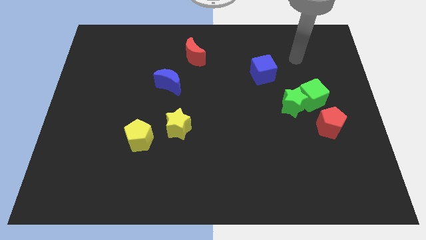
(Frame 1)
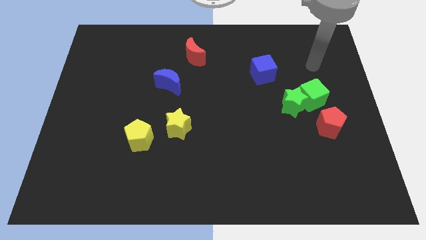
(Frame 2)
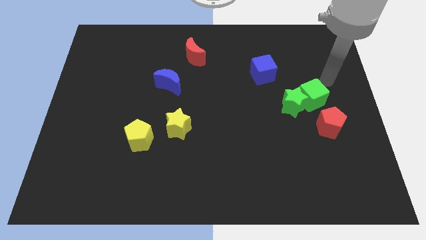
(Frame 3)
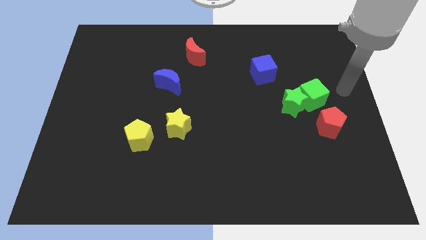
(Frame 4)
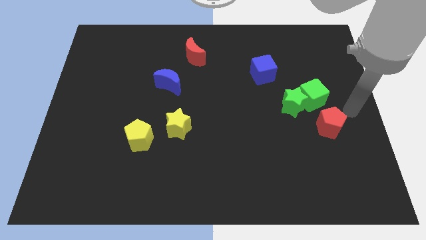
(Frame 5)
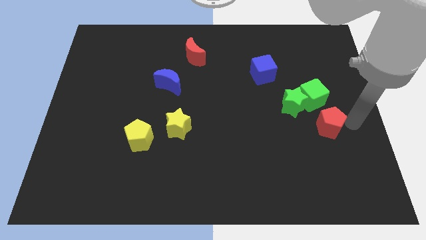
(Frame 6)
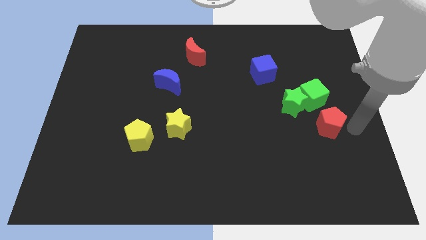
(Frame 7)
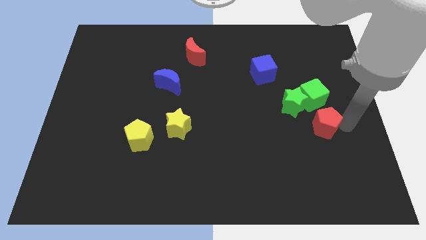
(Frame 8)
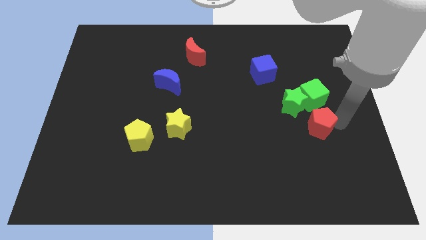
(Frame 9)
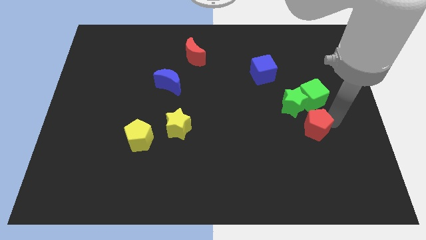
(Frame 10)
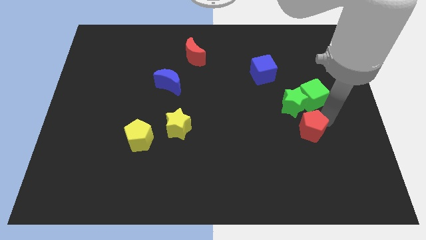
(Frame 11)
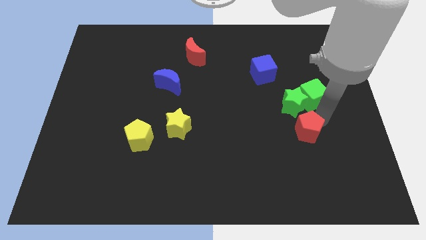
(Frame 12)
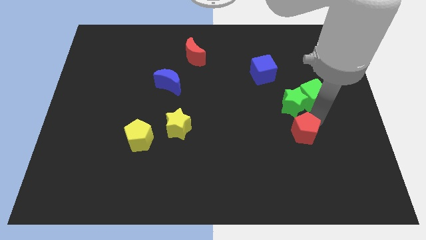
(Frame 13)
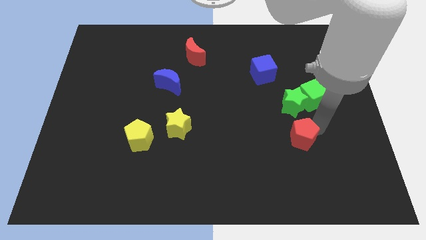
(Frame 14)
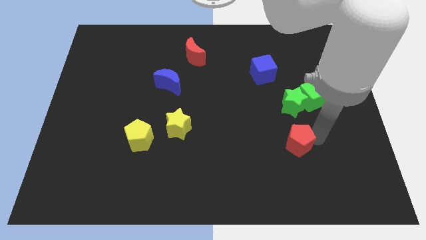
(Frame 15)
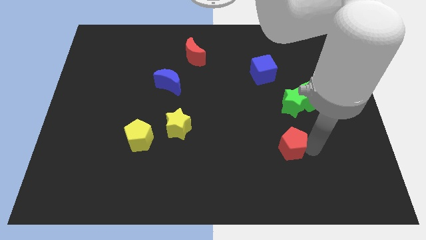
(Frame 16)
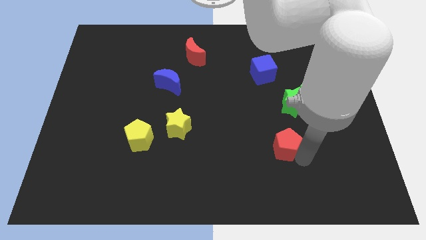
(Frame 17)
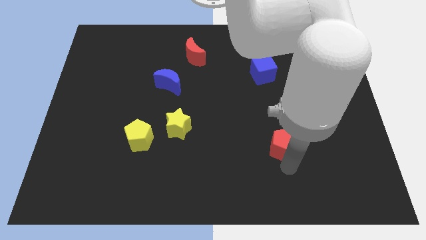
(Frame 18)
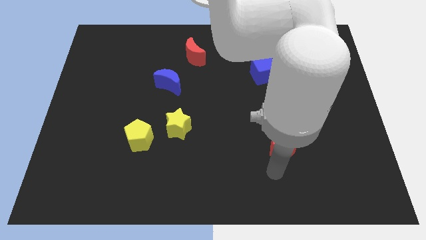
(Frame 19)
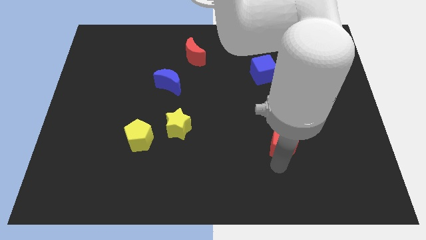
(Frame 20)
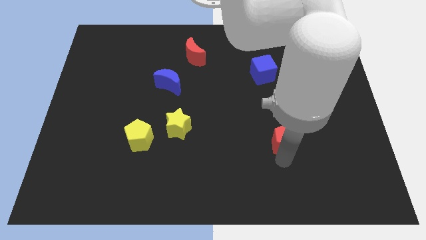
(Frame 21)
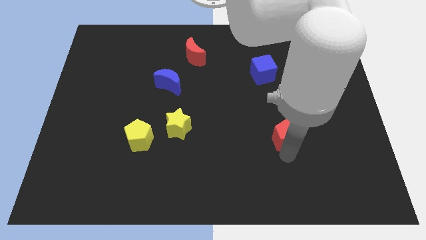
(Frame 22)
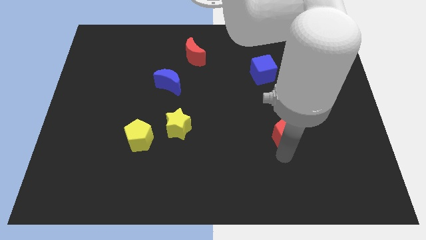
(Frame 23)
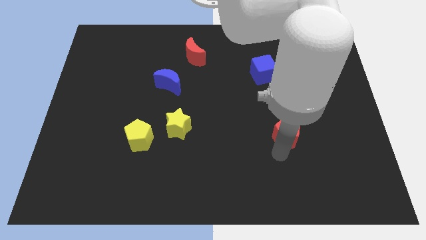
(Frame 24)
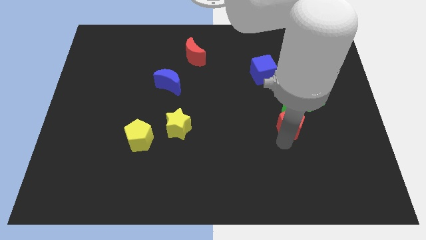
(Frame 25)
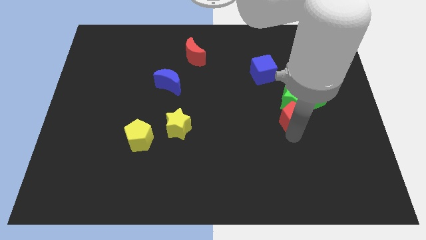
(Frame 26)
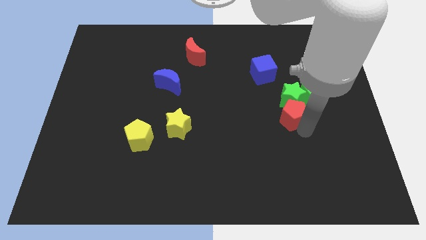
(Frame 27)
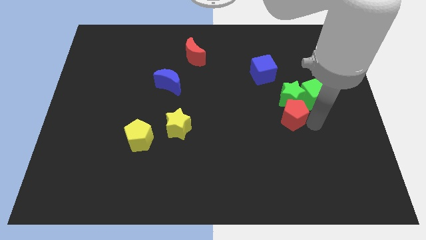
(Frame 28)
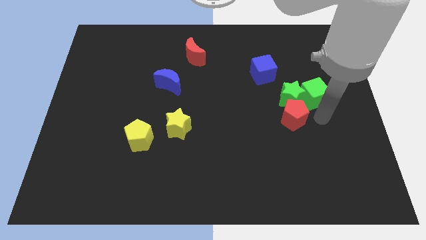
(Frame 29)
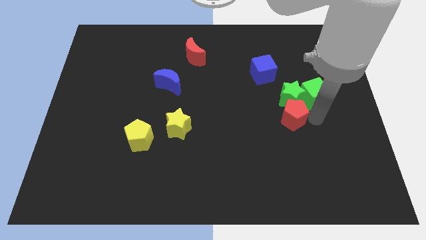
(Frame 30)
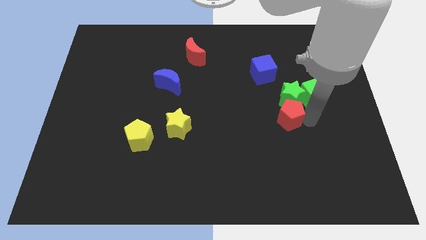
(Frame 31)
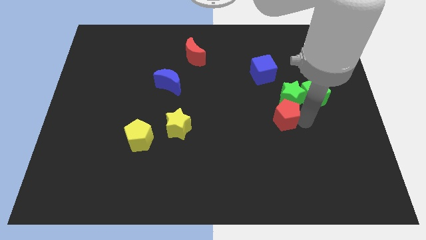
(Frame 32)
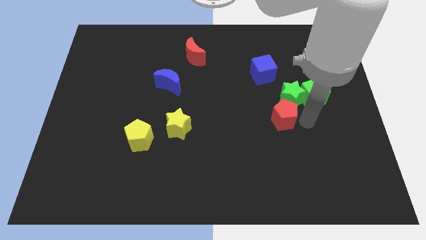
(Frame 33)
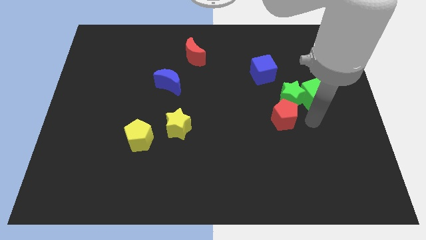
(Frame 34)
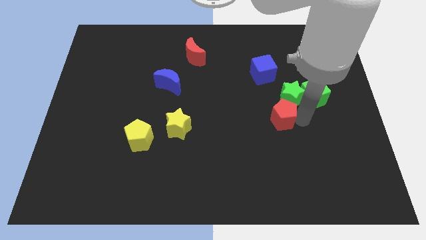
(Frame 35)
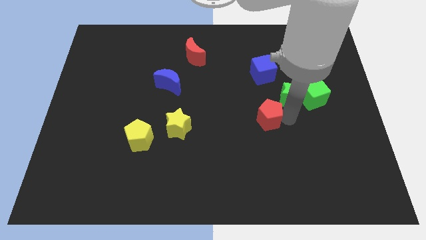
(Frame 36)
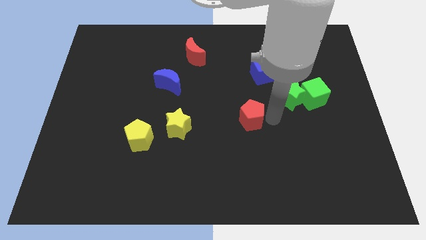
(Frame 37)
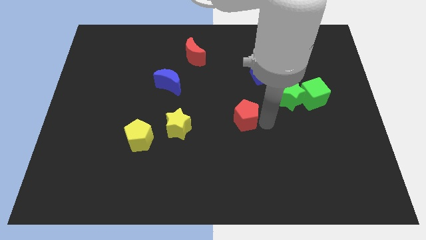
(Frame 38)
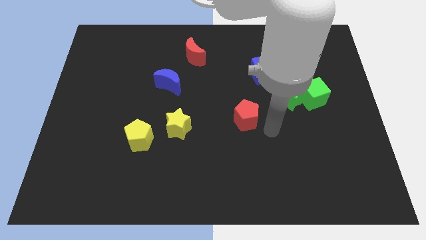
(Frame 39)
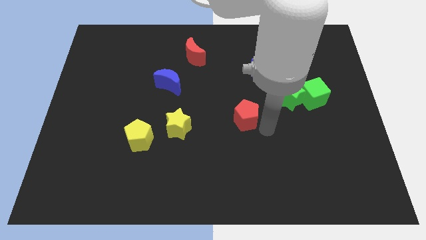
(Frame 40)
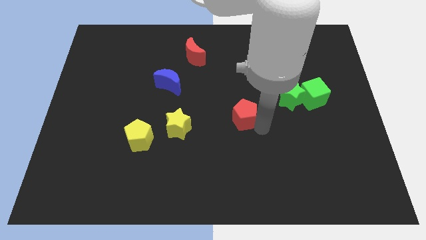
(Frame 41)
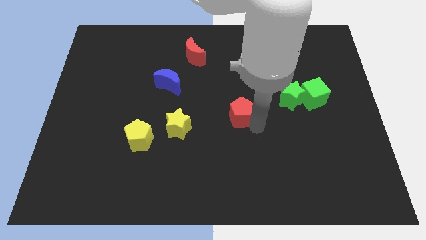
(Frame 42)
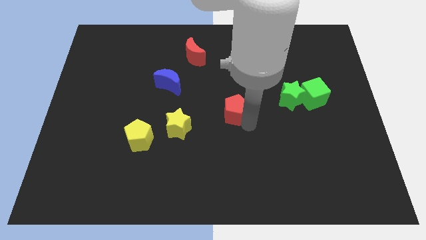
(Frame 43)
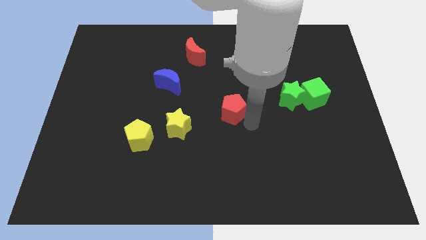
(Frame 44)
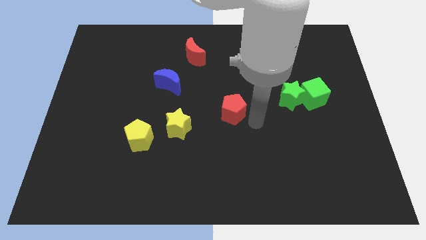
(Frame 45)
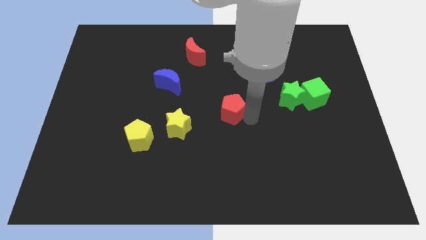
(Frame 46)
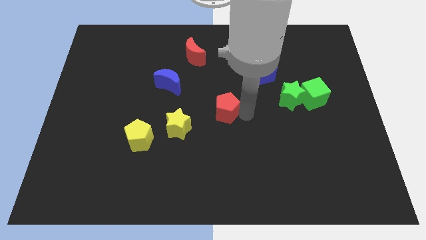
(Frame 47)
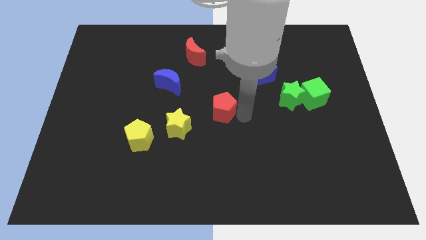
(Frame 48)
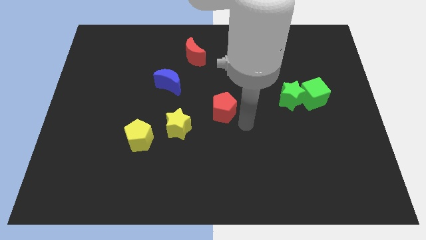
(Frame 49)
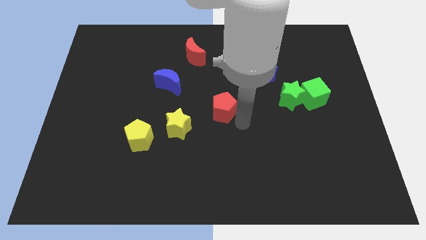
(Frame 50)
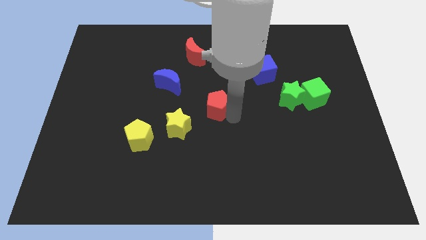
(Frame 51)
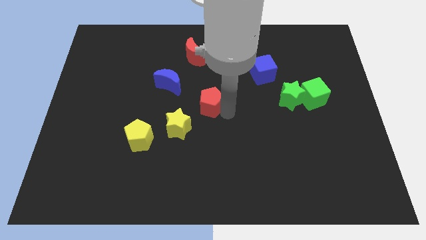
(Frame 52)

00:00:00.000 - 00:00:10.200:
slide the red pentagon to the bottom right side of the blue moon

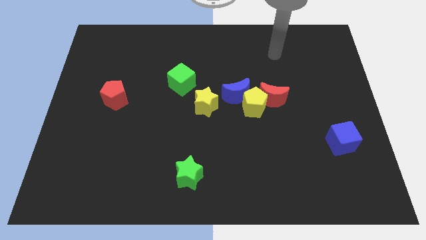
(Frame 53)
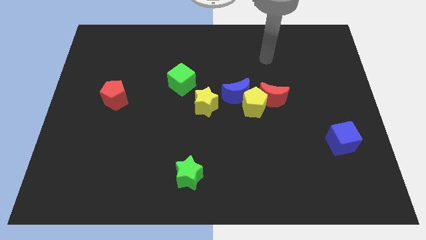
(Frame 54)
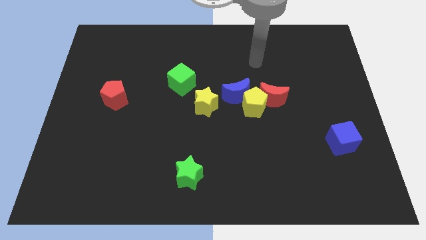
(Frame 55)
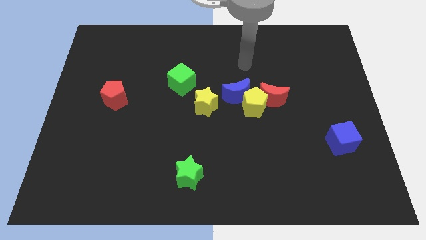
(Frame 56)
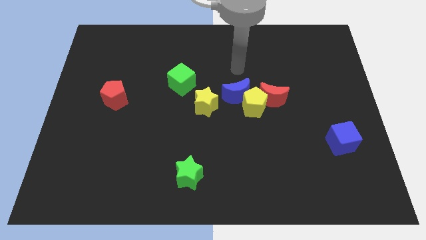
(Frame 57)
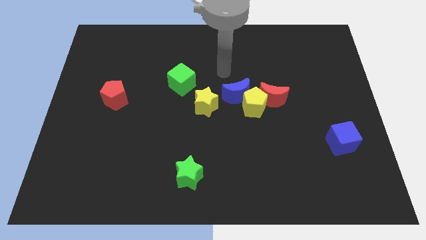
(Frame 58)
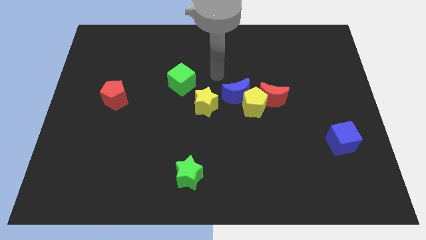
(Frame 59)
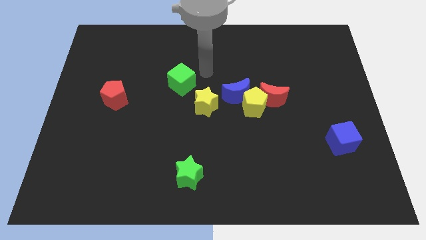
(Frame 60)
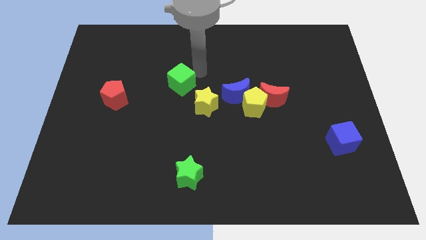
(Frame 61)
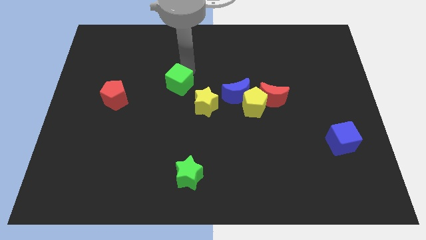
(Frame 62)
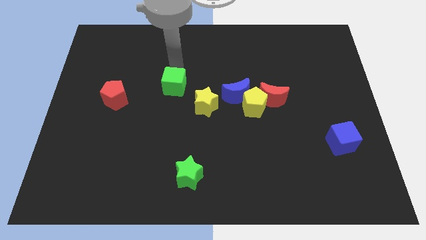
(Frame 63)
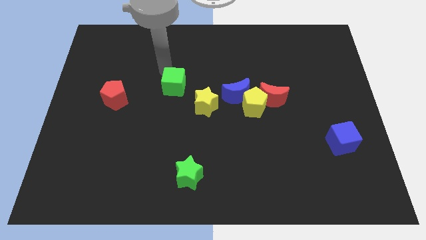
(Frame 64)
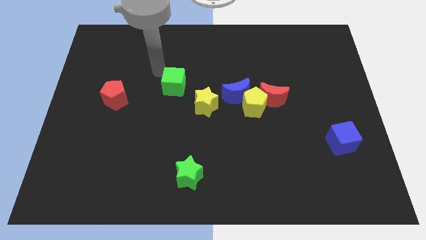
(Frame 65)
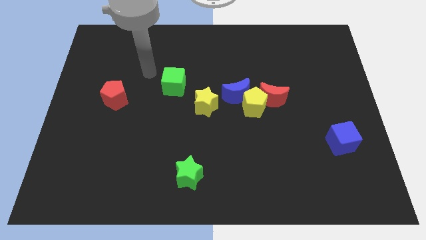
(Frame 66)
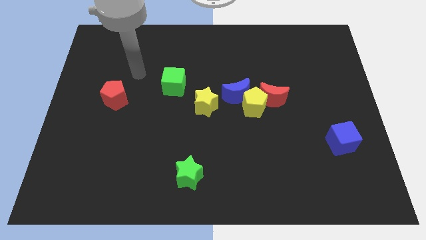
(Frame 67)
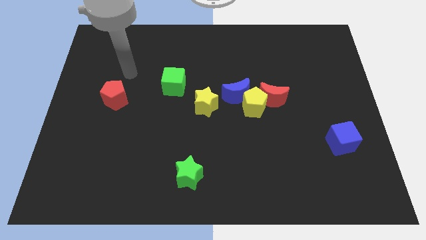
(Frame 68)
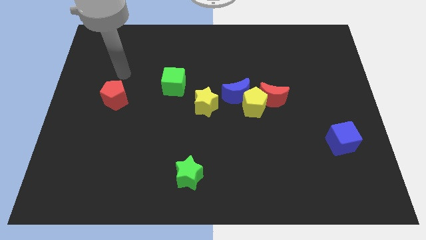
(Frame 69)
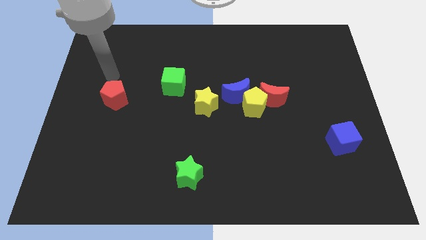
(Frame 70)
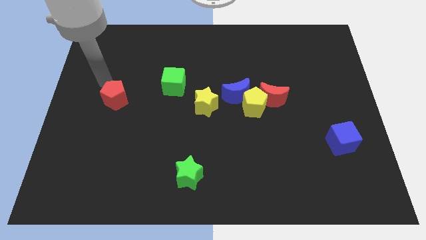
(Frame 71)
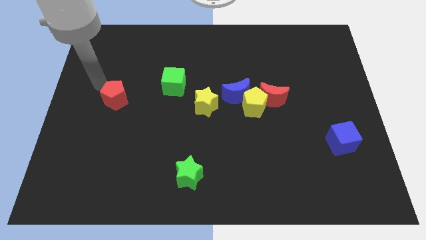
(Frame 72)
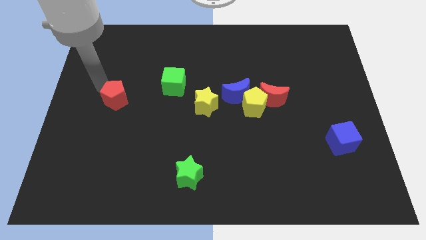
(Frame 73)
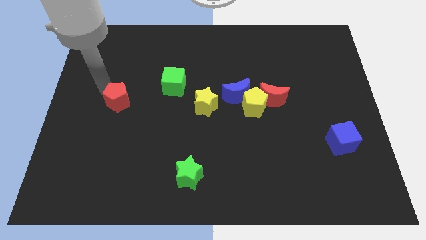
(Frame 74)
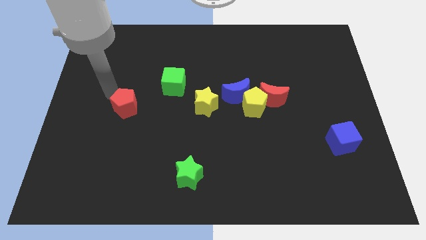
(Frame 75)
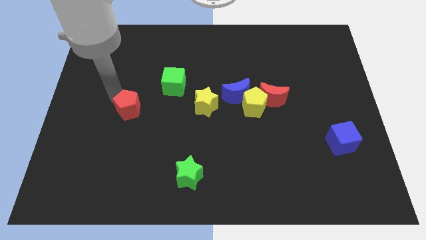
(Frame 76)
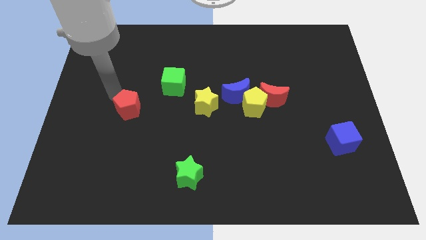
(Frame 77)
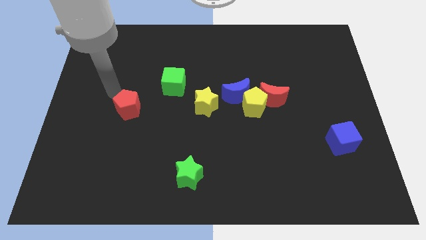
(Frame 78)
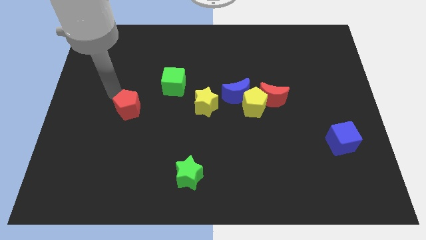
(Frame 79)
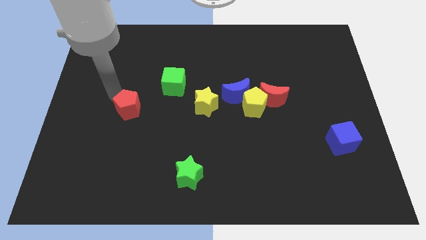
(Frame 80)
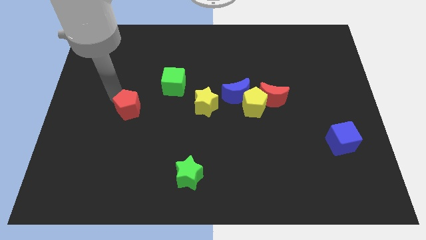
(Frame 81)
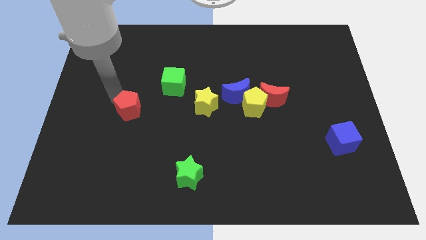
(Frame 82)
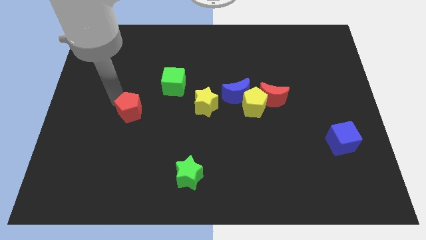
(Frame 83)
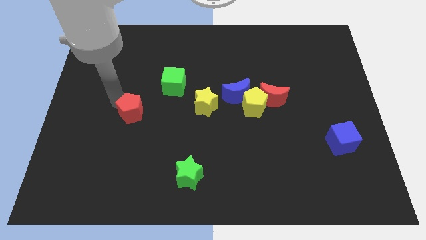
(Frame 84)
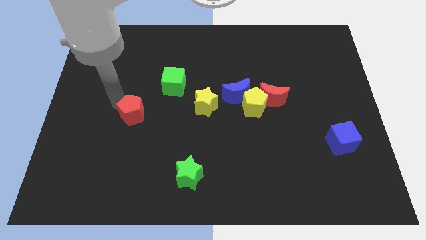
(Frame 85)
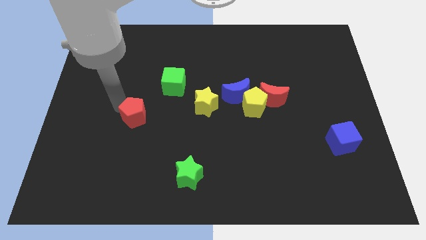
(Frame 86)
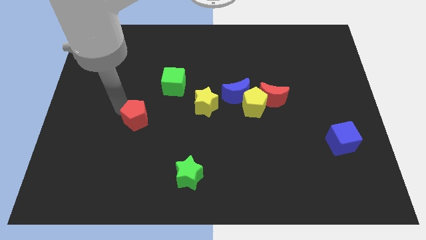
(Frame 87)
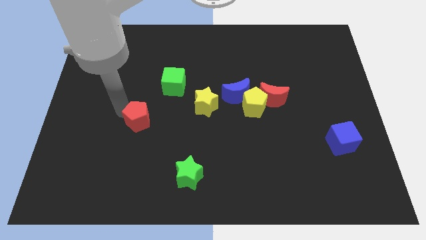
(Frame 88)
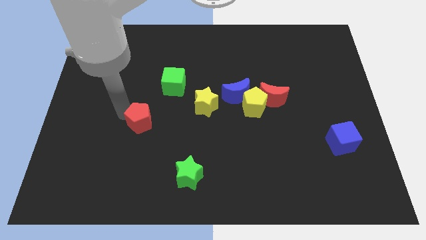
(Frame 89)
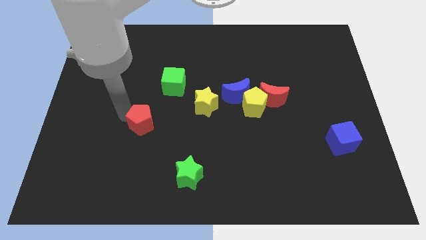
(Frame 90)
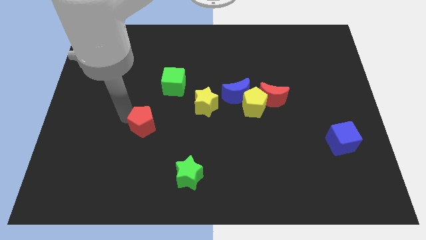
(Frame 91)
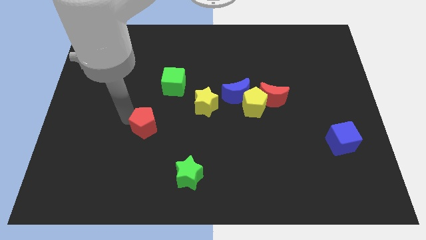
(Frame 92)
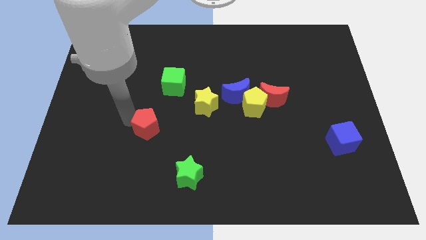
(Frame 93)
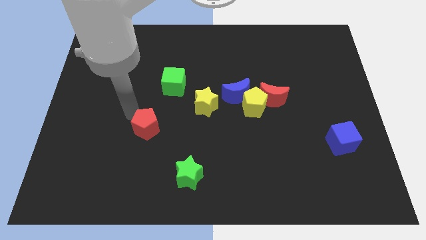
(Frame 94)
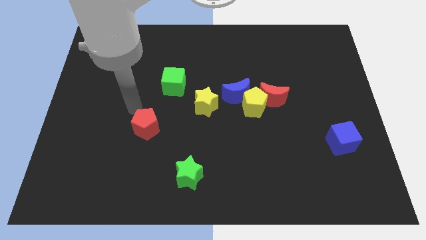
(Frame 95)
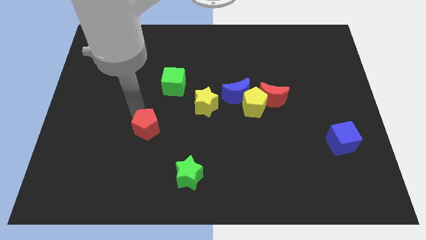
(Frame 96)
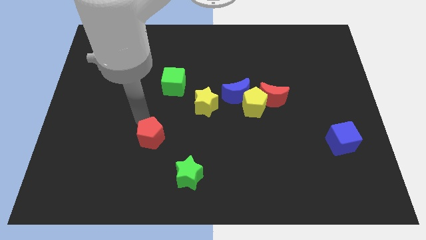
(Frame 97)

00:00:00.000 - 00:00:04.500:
push the red pentagon diagonally up and to the left of the green star
